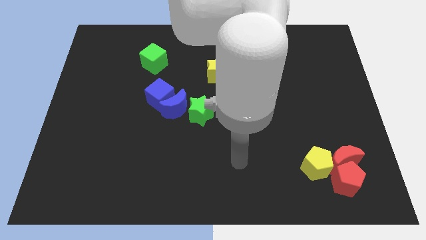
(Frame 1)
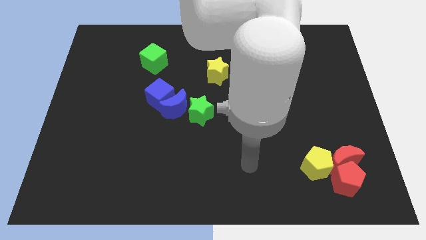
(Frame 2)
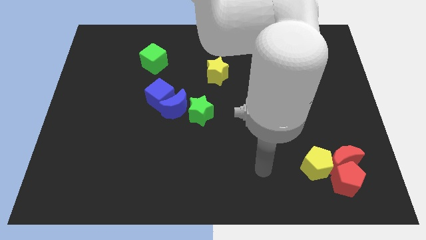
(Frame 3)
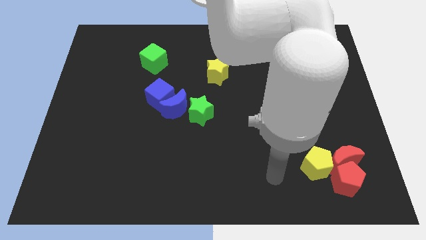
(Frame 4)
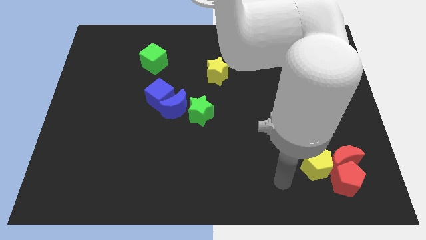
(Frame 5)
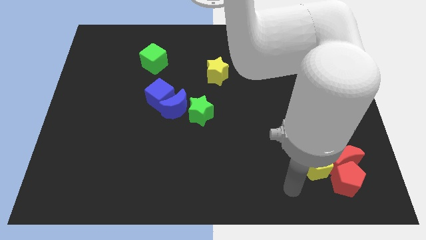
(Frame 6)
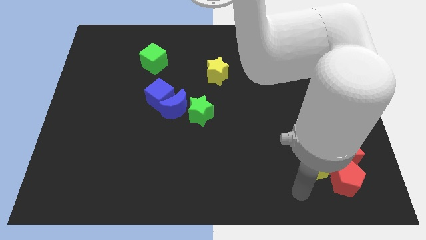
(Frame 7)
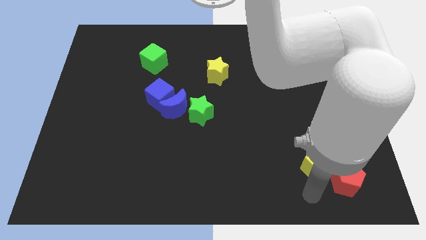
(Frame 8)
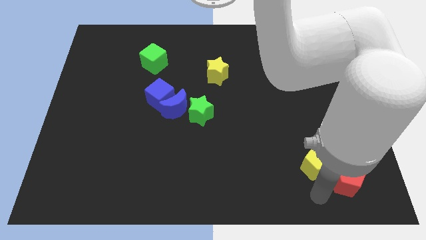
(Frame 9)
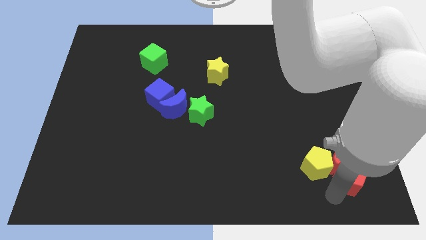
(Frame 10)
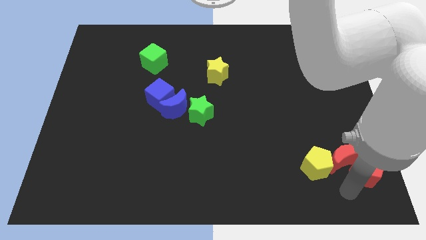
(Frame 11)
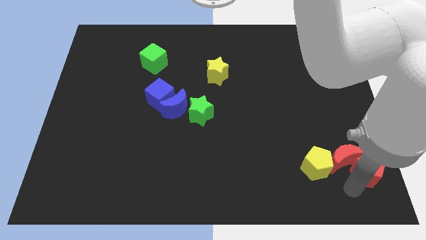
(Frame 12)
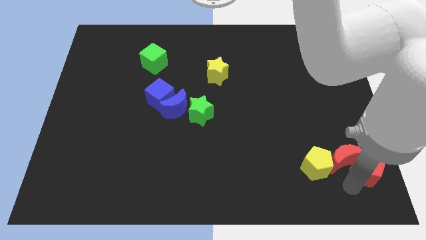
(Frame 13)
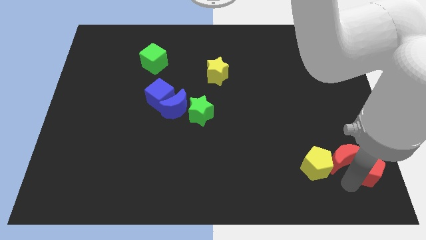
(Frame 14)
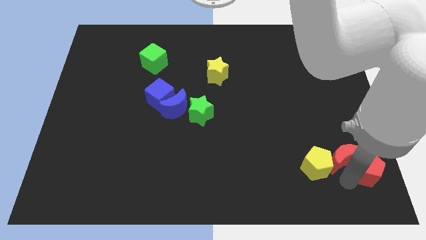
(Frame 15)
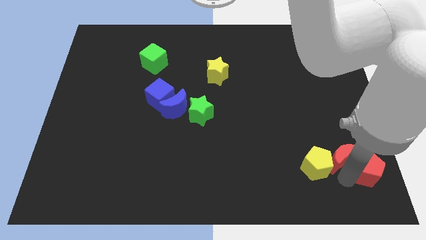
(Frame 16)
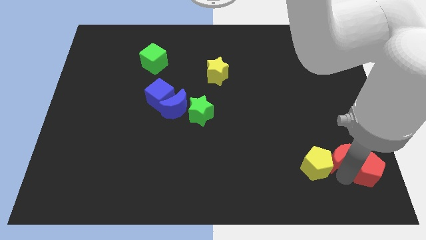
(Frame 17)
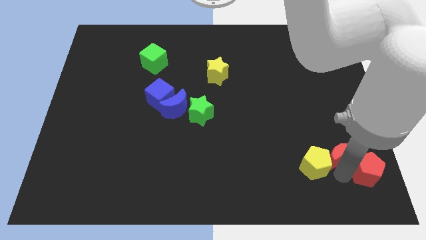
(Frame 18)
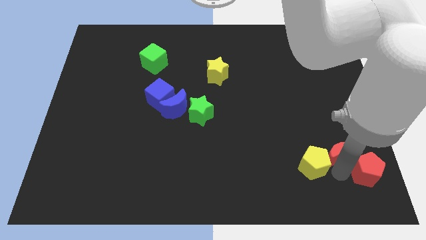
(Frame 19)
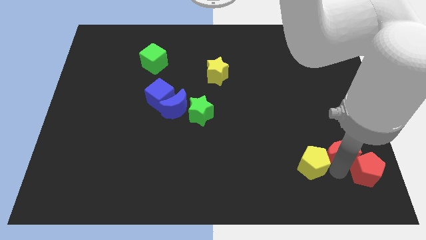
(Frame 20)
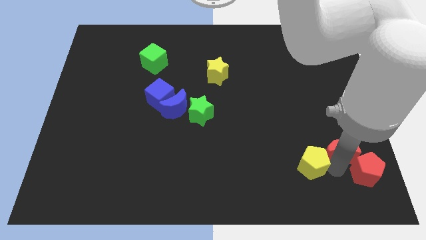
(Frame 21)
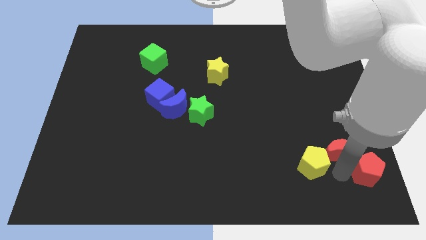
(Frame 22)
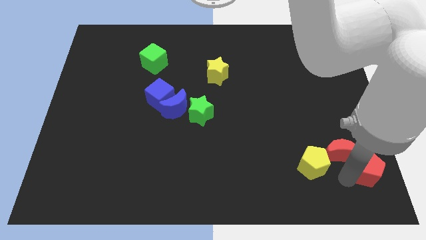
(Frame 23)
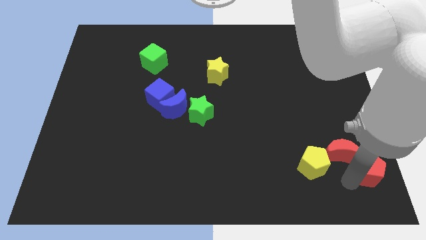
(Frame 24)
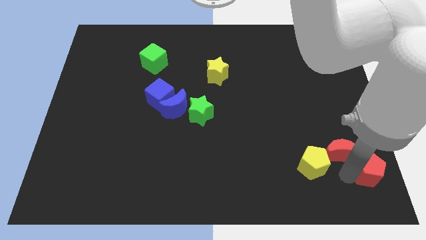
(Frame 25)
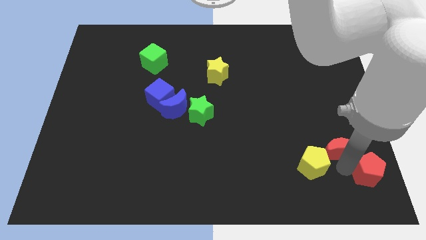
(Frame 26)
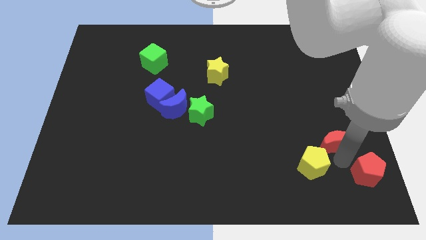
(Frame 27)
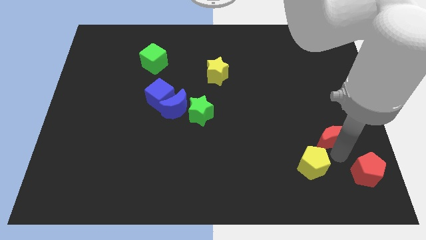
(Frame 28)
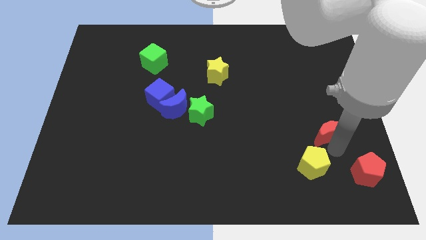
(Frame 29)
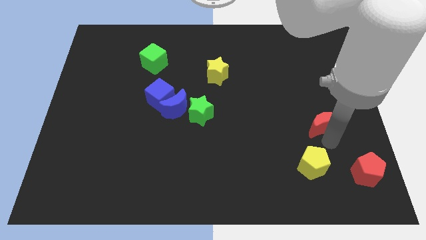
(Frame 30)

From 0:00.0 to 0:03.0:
slide the red moon a little up

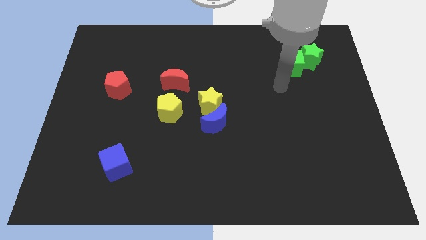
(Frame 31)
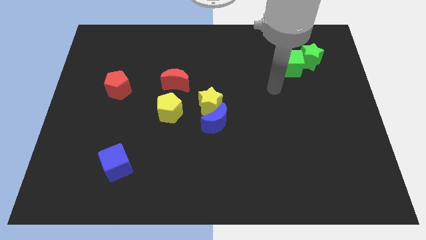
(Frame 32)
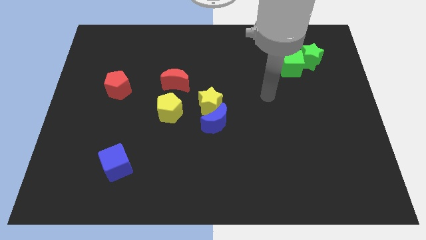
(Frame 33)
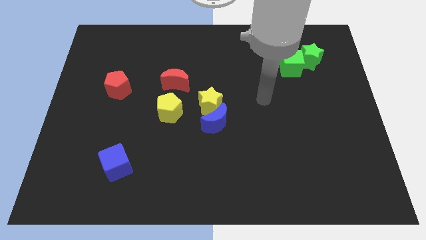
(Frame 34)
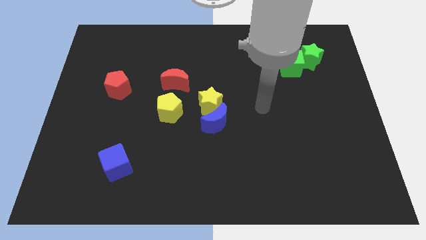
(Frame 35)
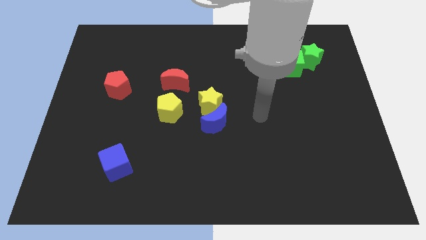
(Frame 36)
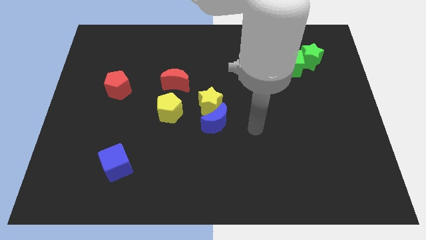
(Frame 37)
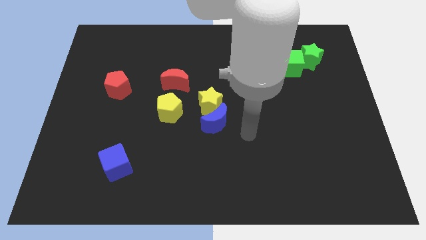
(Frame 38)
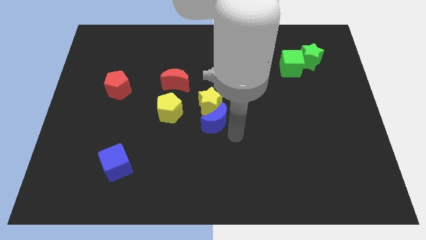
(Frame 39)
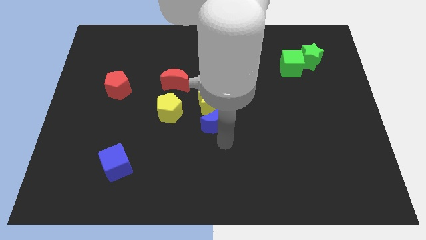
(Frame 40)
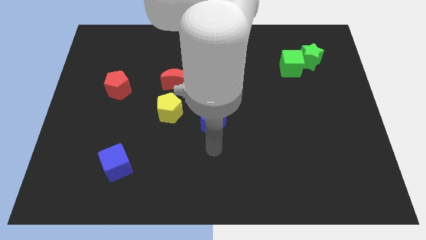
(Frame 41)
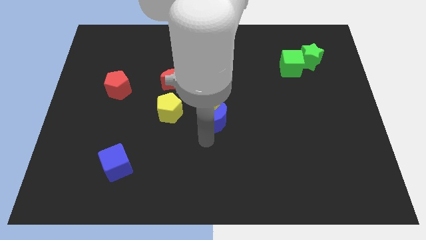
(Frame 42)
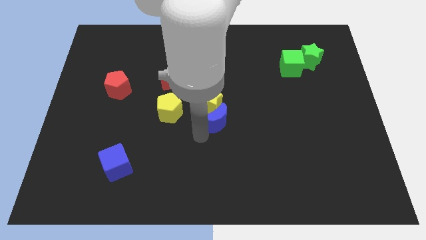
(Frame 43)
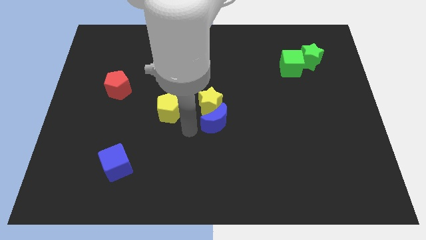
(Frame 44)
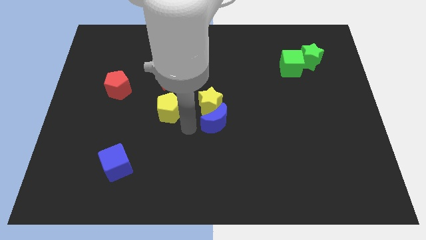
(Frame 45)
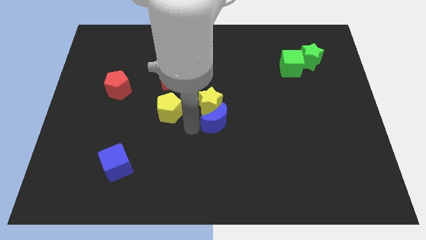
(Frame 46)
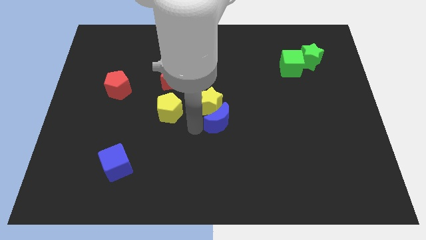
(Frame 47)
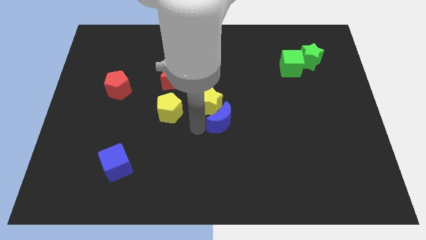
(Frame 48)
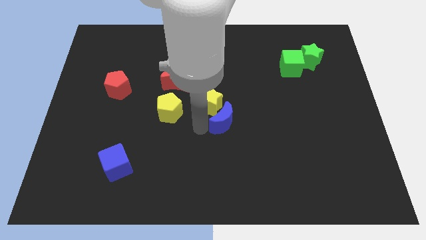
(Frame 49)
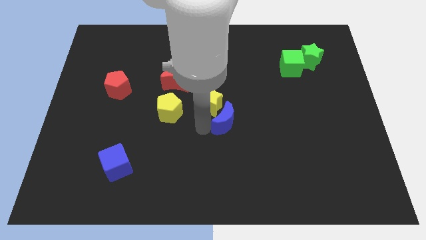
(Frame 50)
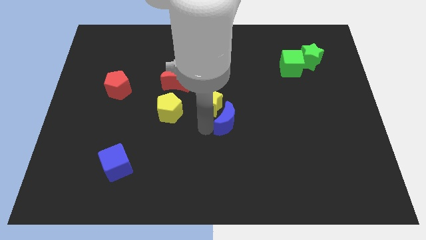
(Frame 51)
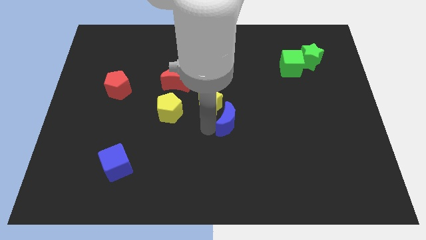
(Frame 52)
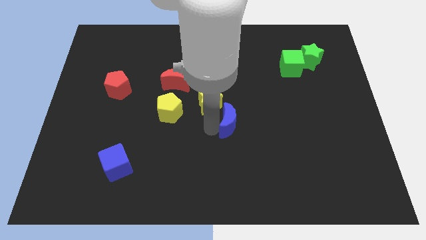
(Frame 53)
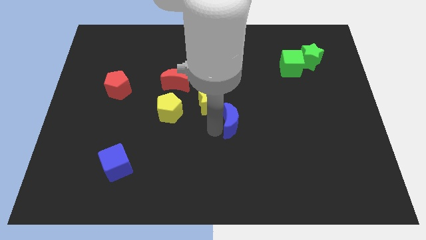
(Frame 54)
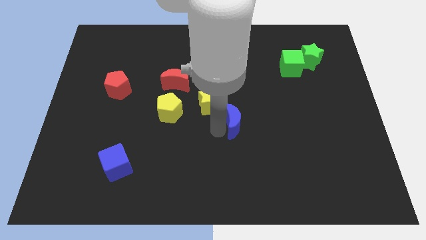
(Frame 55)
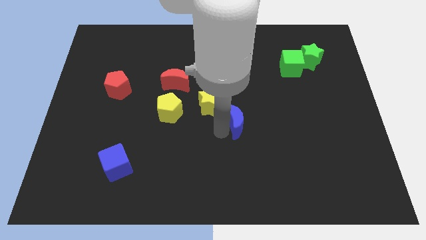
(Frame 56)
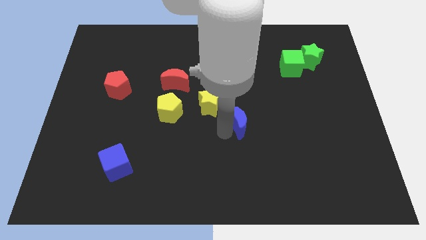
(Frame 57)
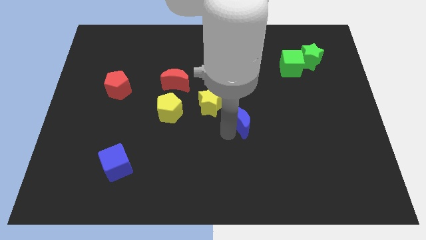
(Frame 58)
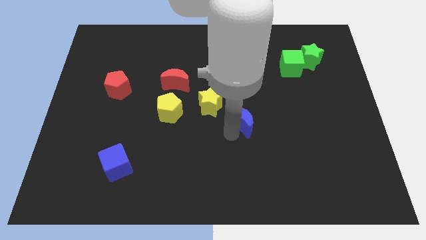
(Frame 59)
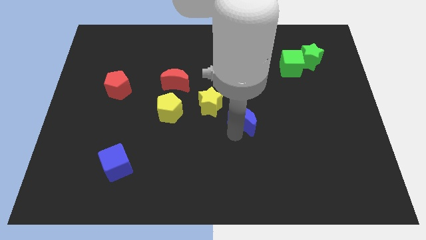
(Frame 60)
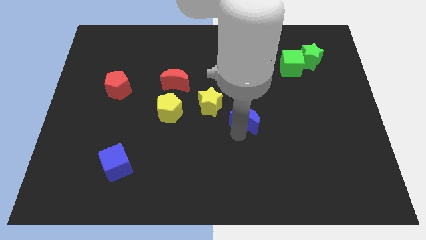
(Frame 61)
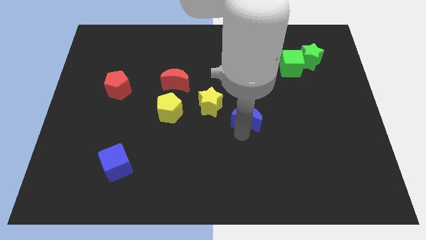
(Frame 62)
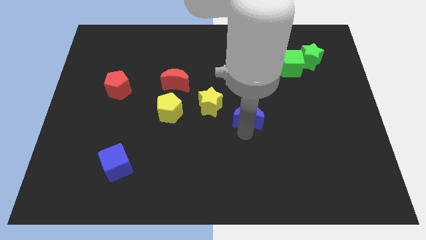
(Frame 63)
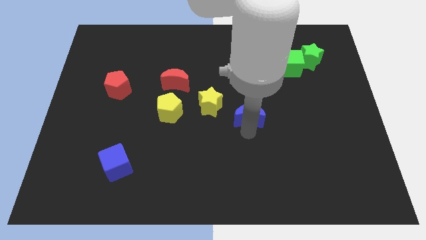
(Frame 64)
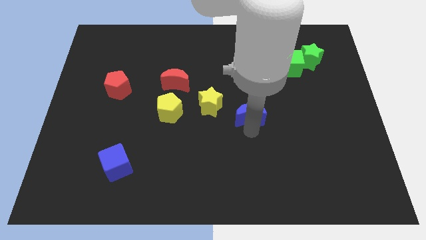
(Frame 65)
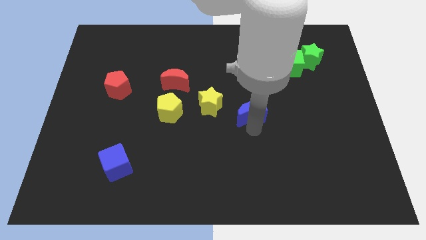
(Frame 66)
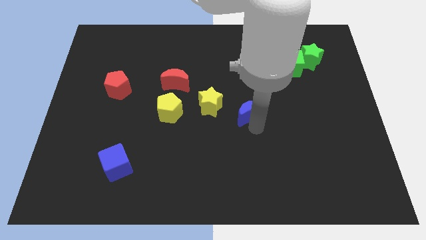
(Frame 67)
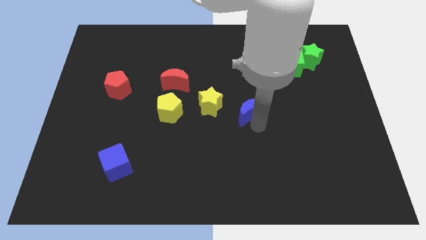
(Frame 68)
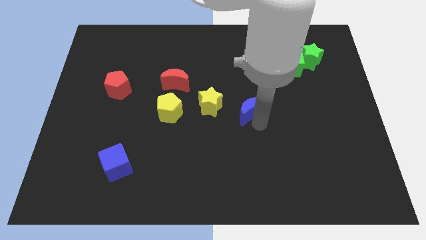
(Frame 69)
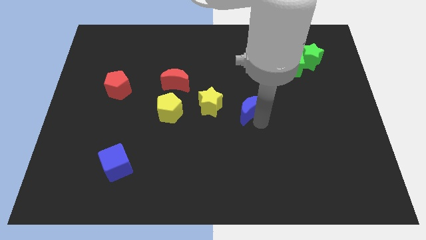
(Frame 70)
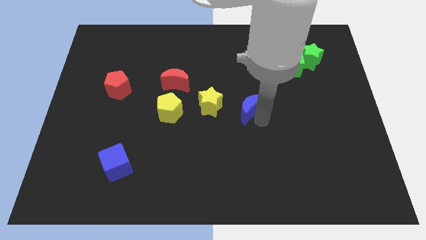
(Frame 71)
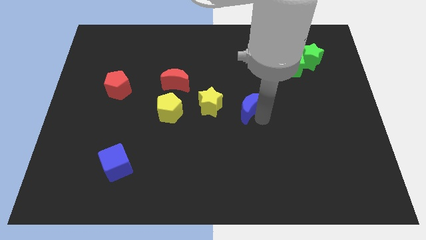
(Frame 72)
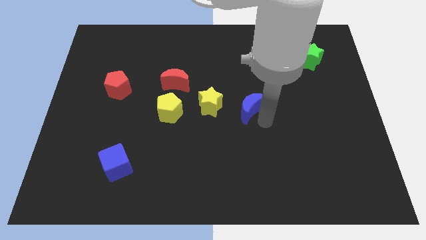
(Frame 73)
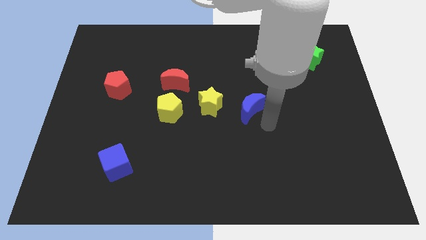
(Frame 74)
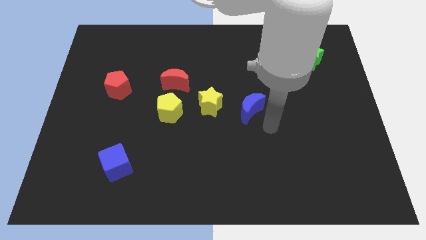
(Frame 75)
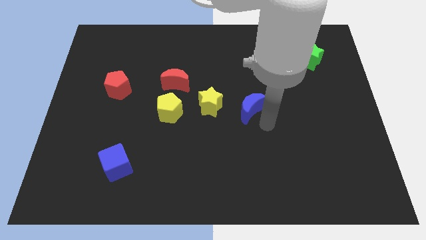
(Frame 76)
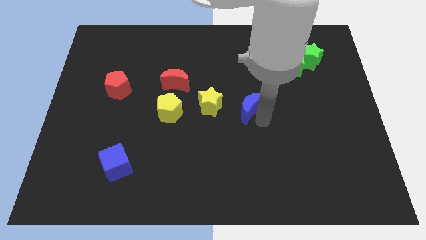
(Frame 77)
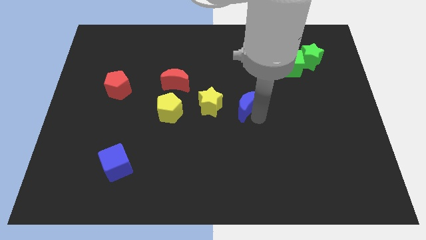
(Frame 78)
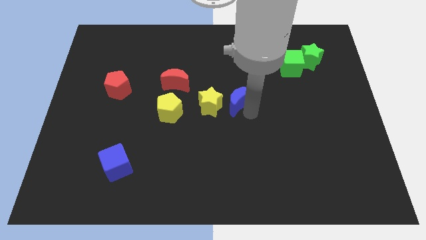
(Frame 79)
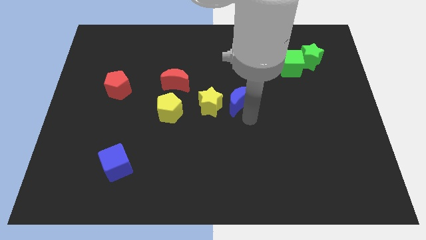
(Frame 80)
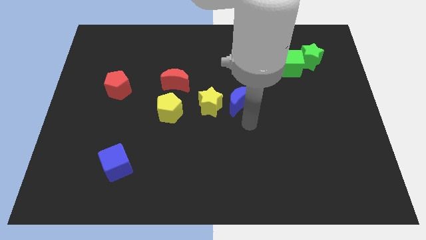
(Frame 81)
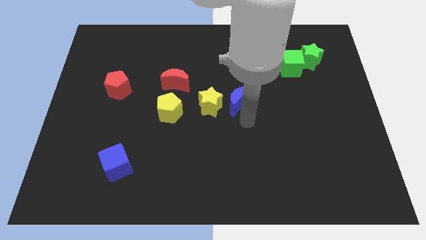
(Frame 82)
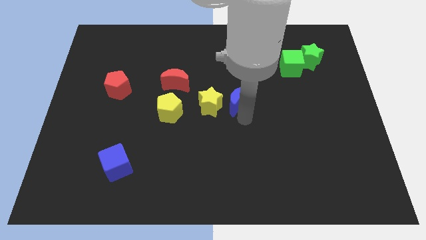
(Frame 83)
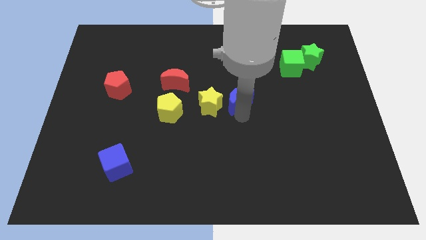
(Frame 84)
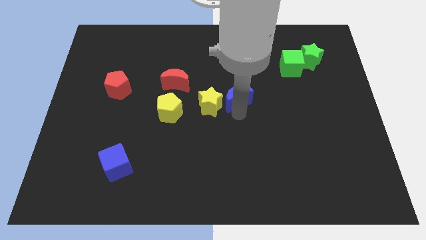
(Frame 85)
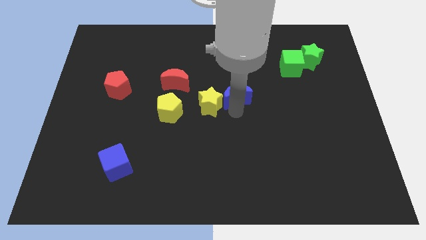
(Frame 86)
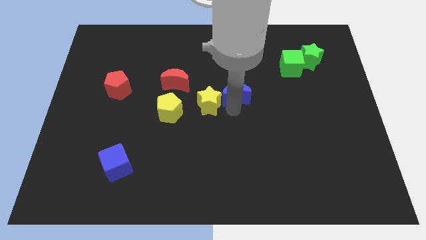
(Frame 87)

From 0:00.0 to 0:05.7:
slightly move the blue moon upwards
